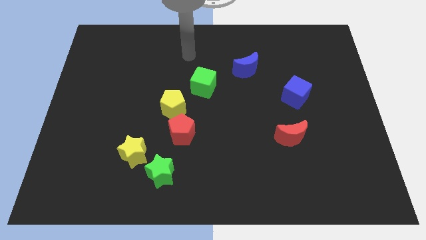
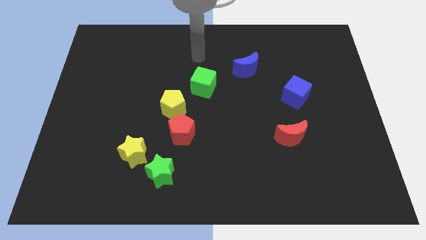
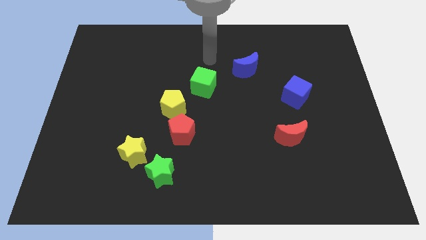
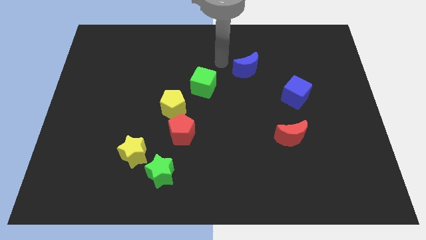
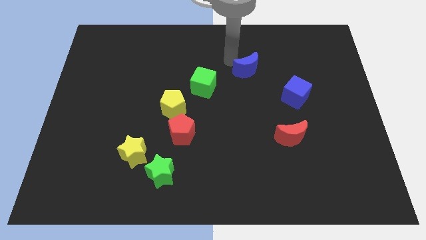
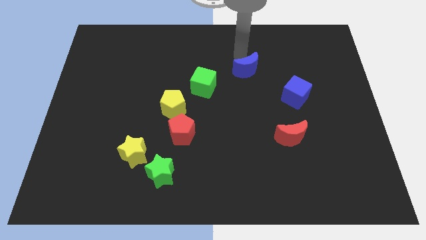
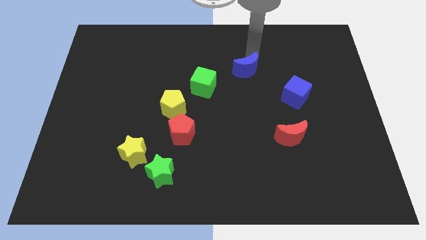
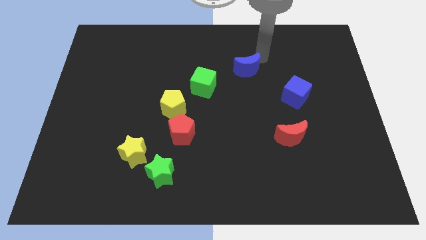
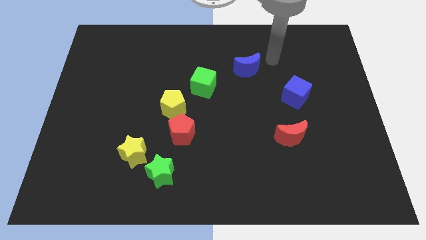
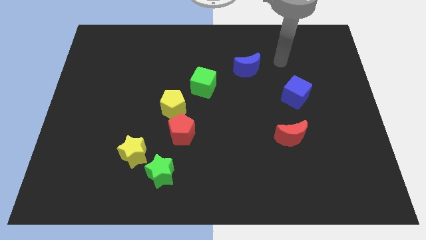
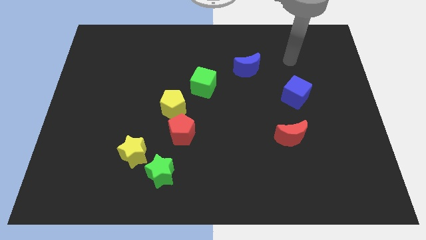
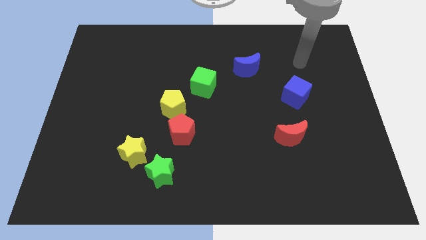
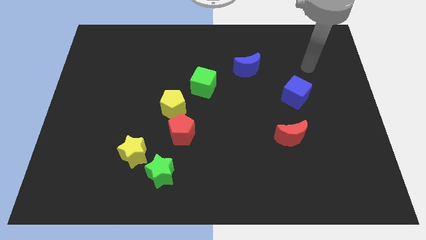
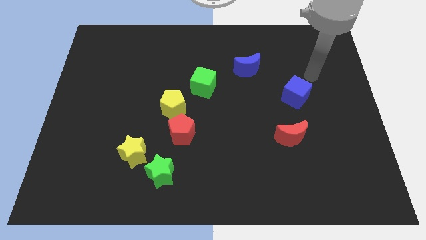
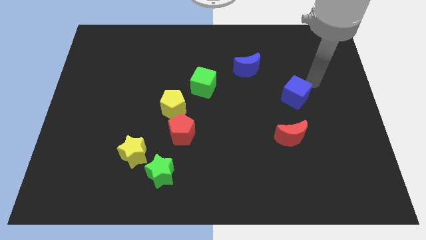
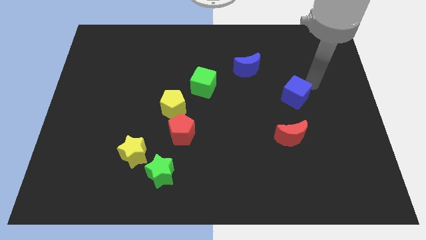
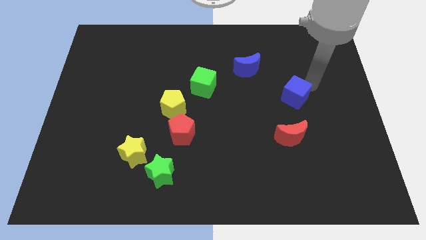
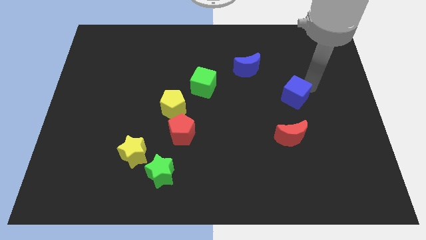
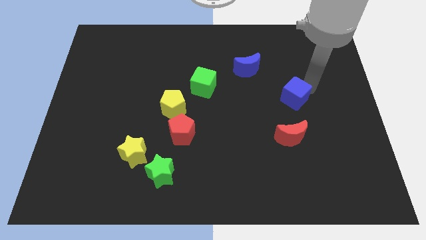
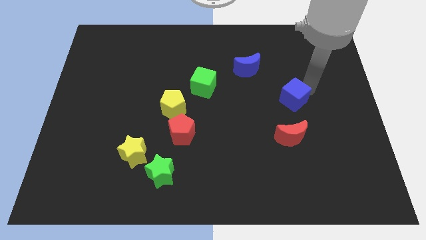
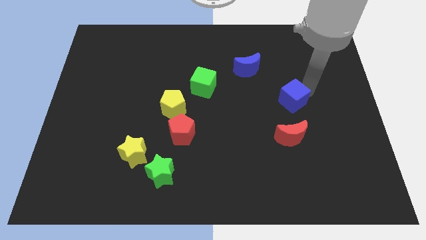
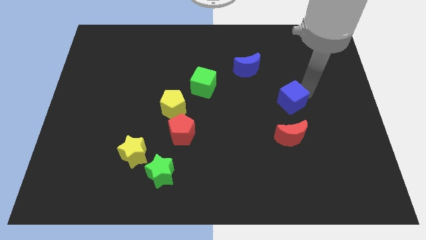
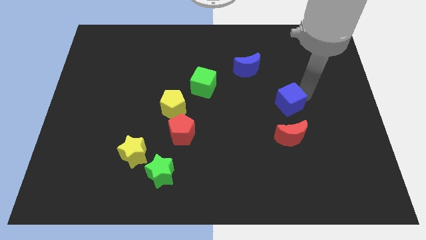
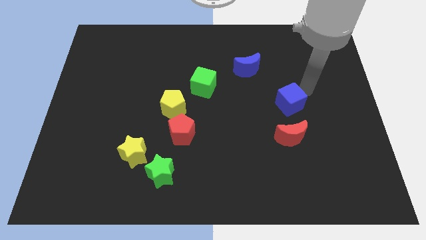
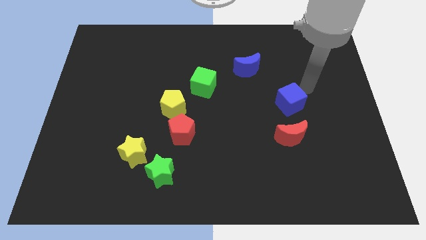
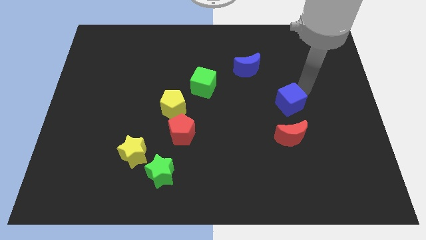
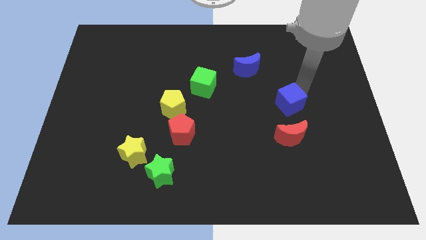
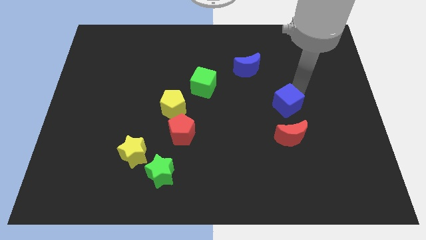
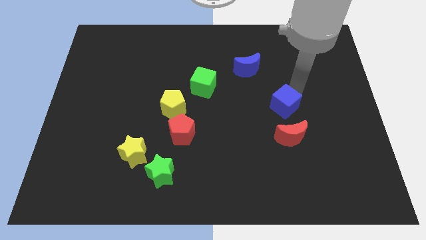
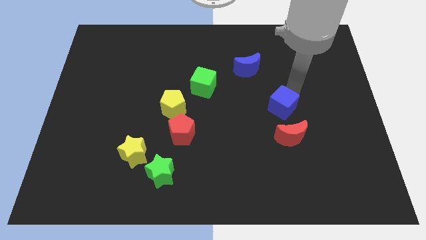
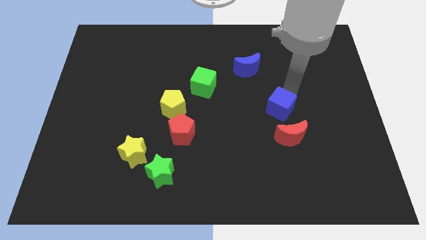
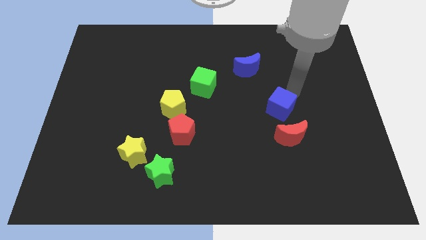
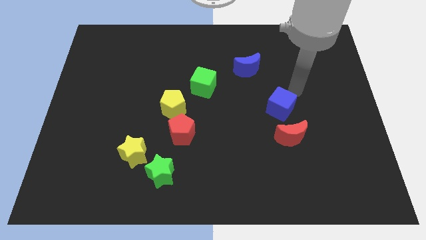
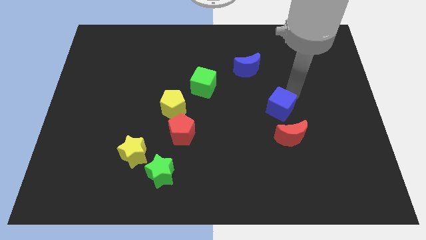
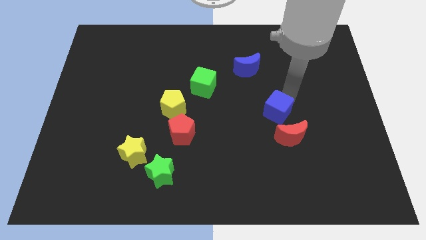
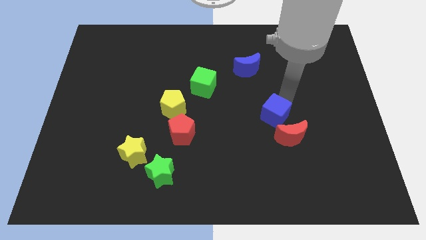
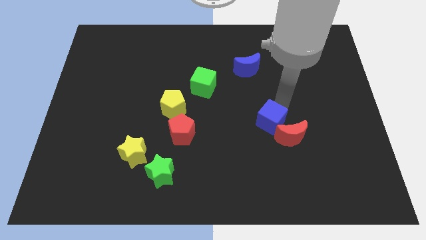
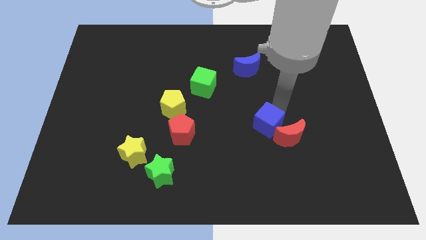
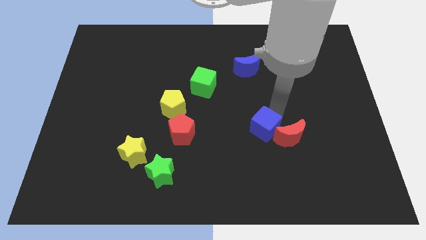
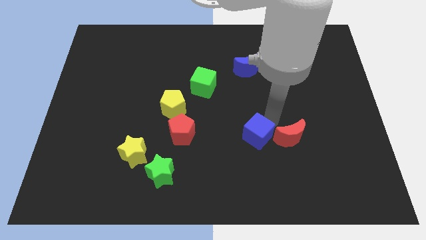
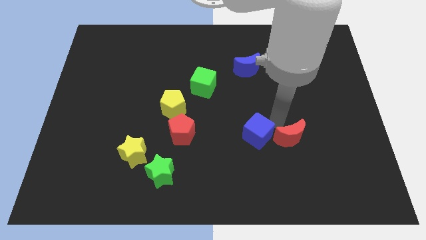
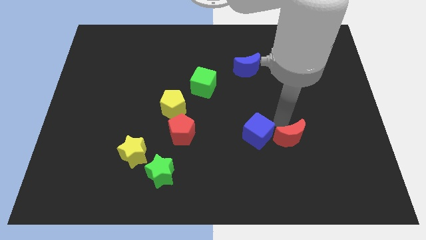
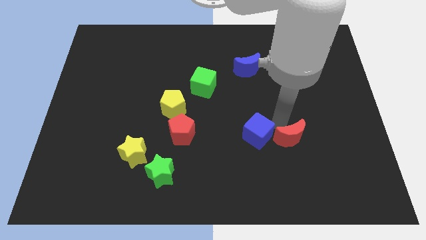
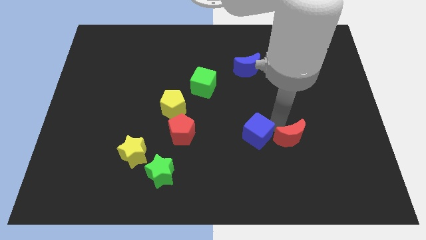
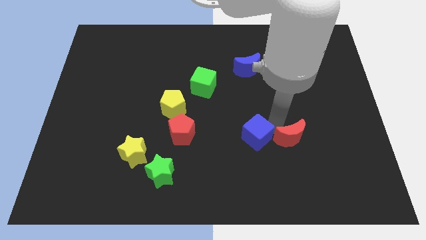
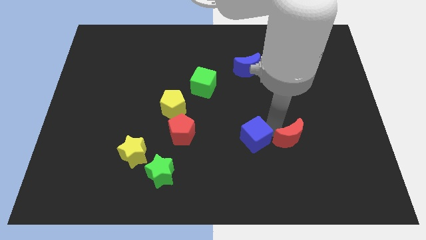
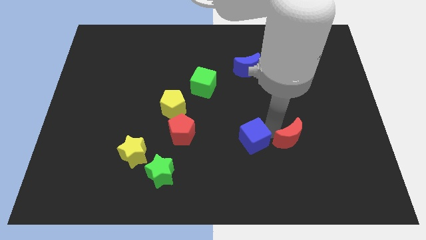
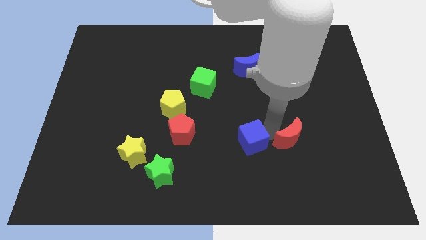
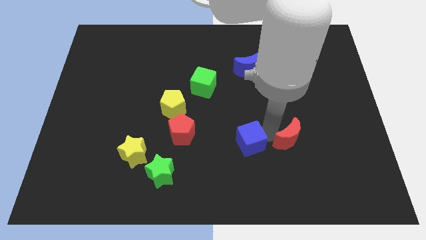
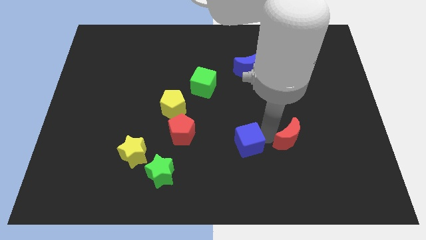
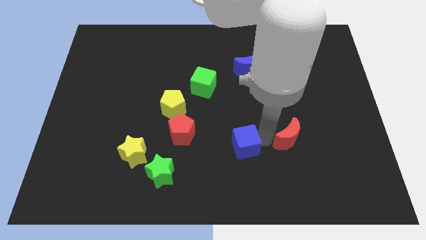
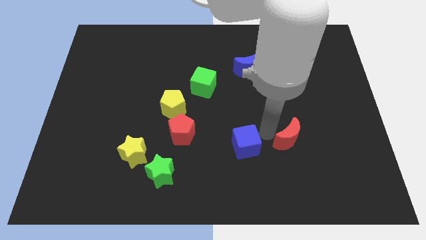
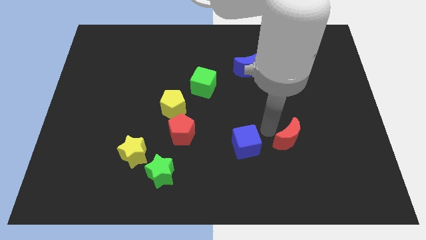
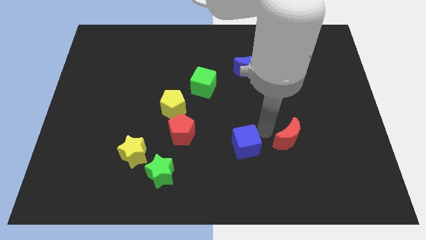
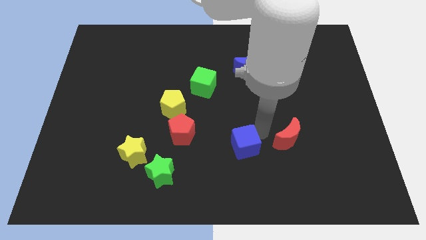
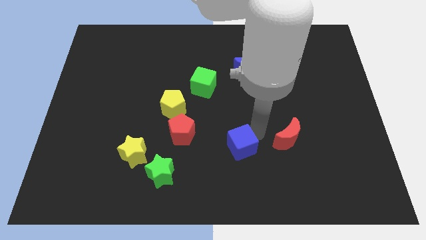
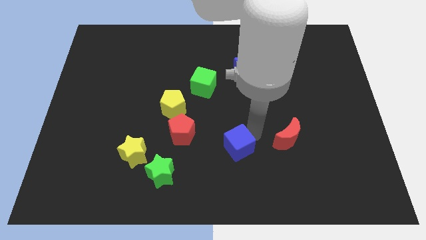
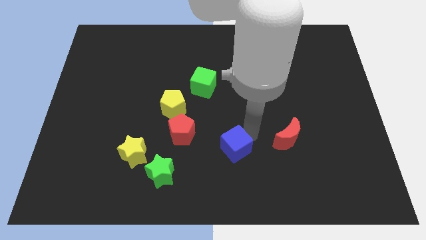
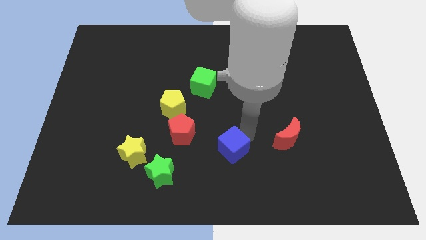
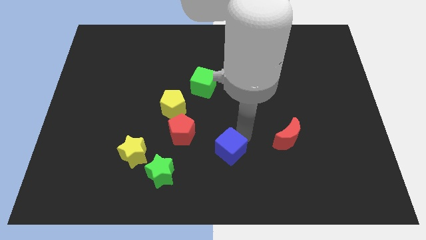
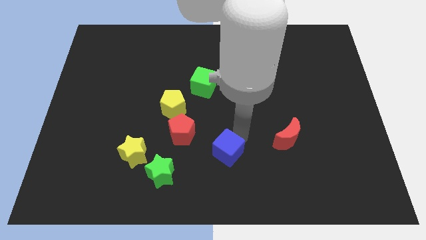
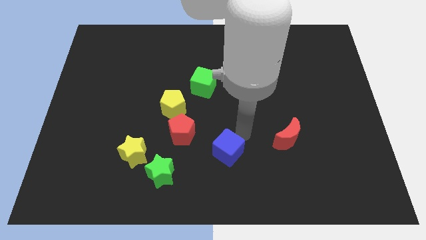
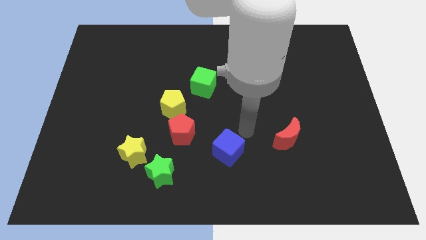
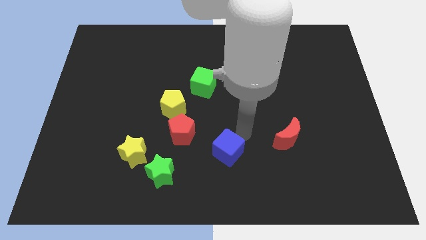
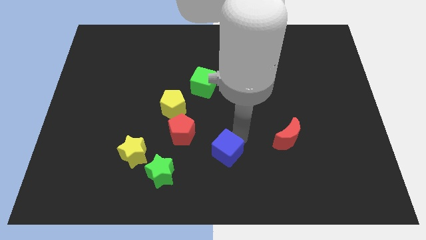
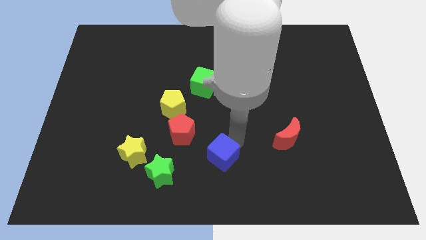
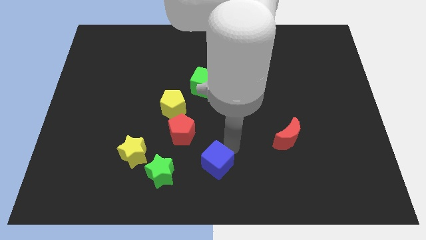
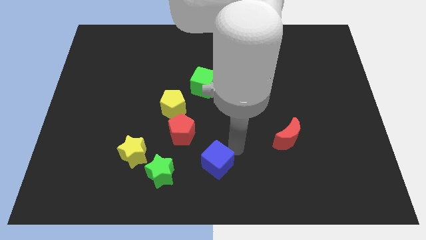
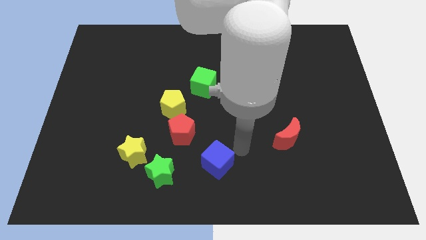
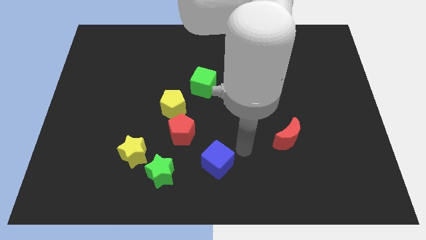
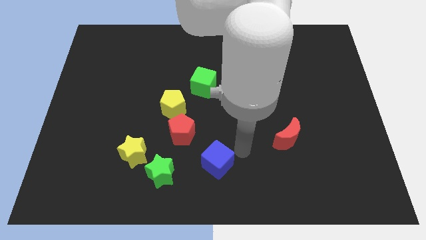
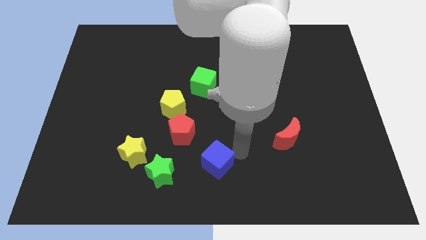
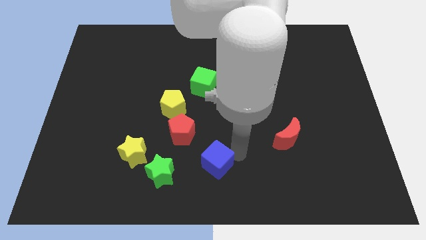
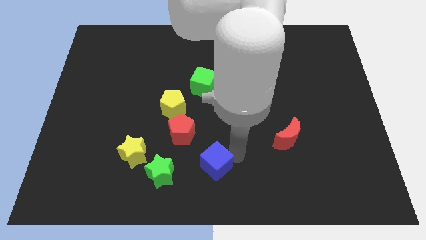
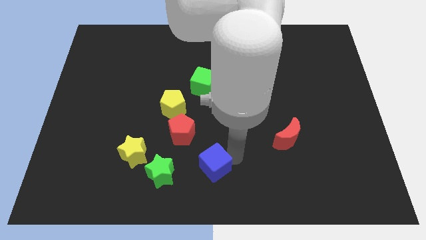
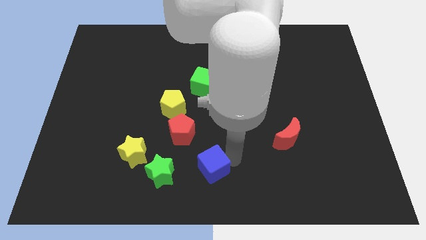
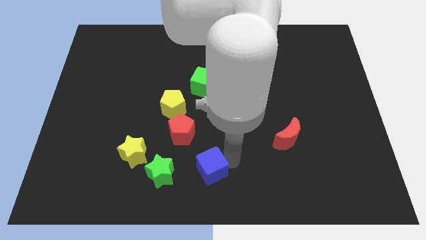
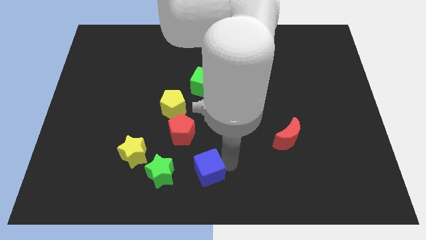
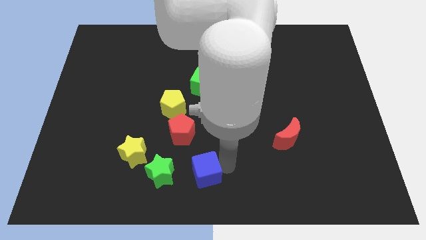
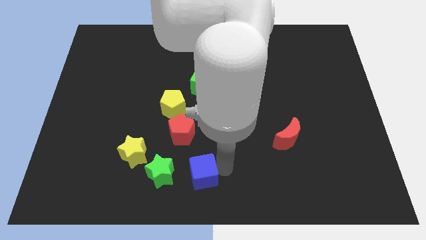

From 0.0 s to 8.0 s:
push the blue cube below the red pentagon
